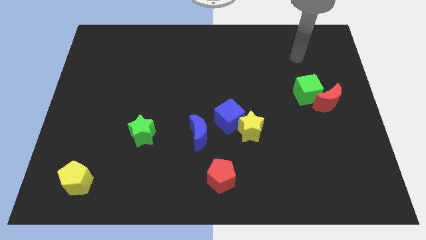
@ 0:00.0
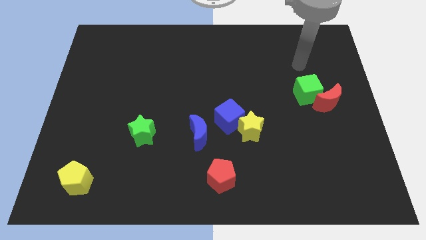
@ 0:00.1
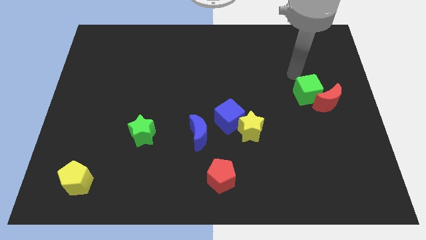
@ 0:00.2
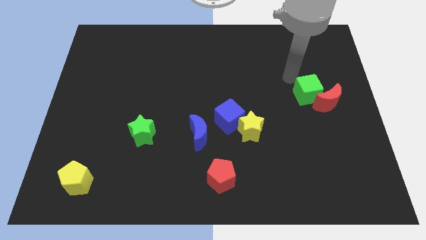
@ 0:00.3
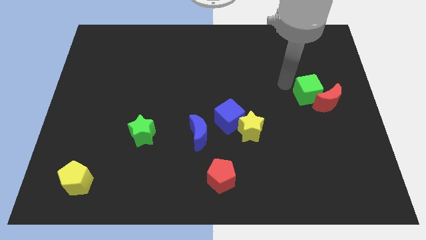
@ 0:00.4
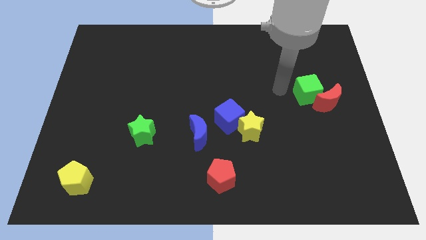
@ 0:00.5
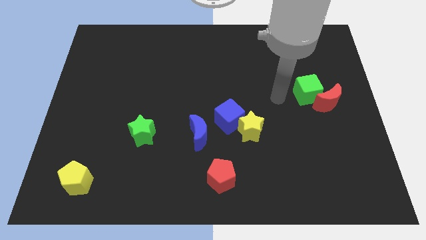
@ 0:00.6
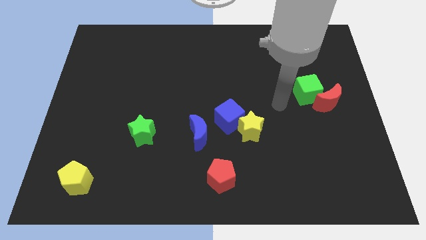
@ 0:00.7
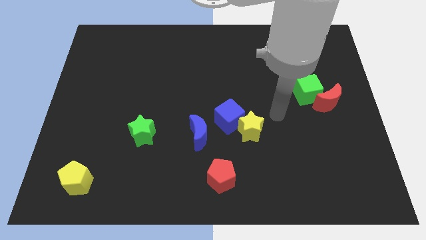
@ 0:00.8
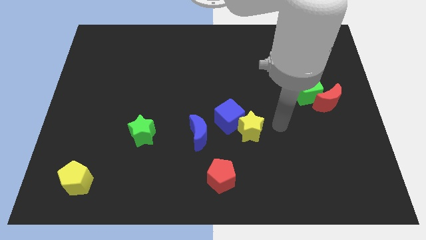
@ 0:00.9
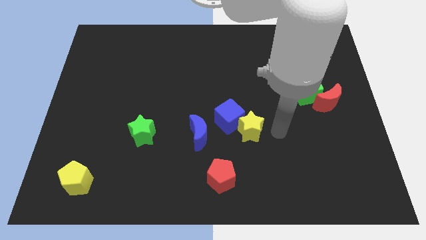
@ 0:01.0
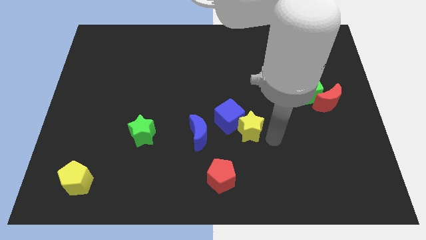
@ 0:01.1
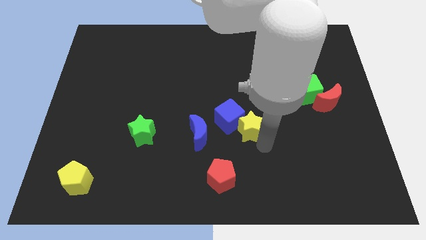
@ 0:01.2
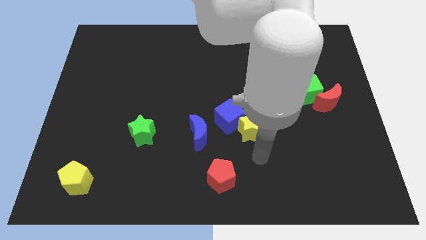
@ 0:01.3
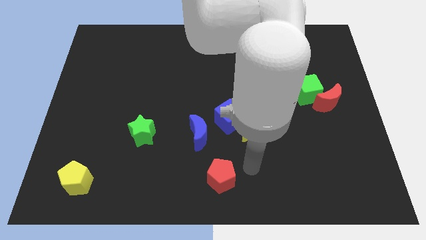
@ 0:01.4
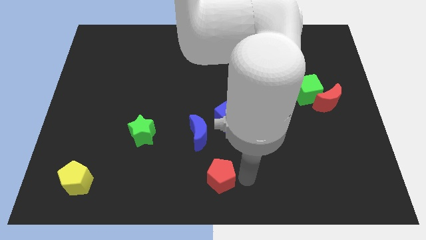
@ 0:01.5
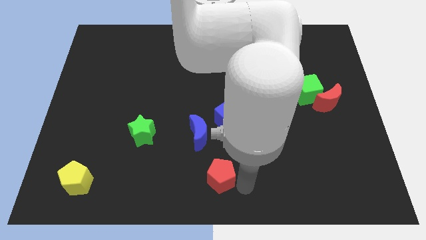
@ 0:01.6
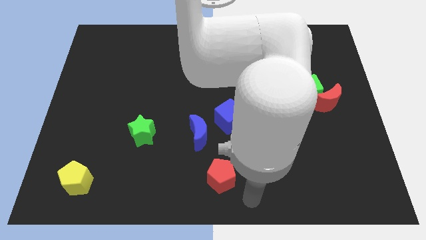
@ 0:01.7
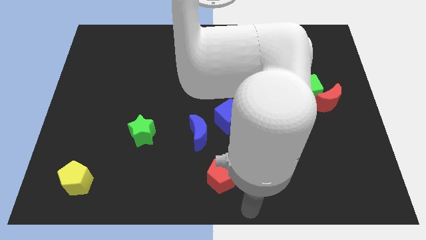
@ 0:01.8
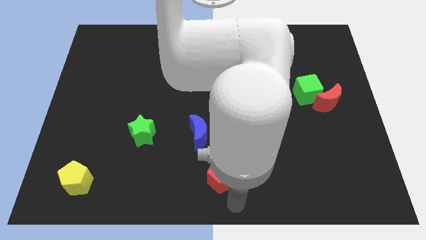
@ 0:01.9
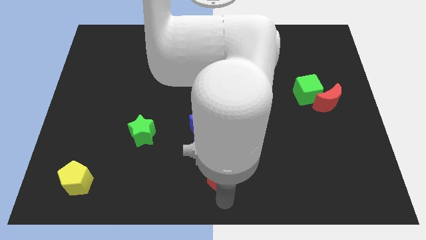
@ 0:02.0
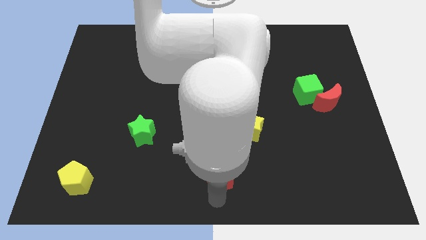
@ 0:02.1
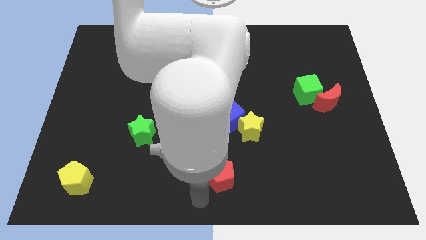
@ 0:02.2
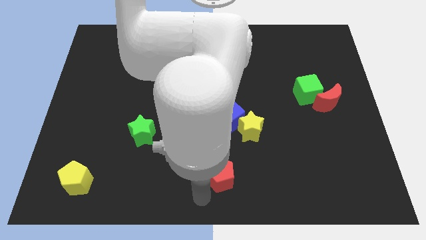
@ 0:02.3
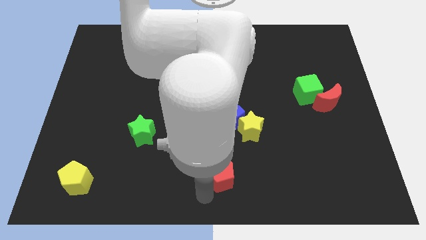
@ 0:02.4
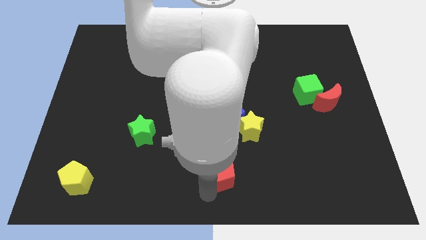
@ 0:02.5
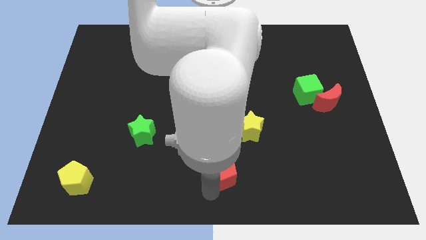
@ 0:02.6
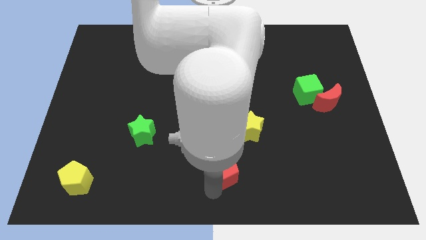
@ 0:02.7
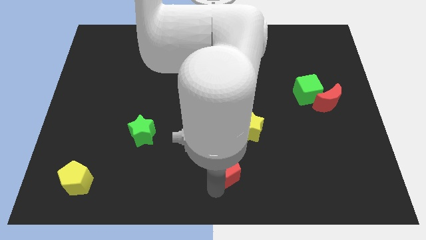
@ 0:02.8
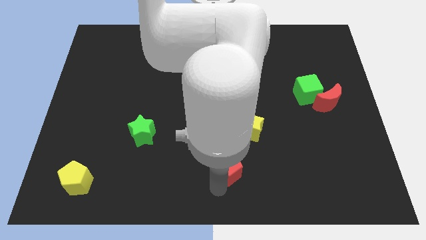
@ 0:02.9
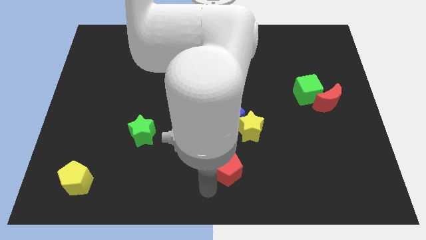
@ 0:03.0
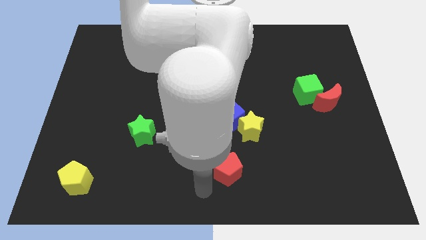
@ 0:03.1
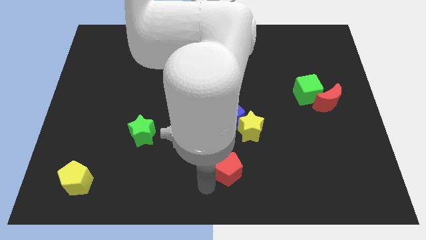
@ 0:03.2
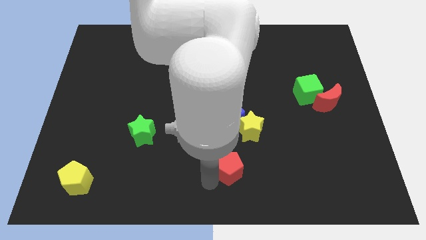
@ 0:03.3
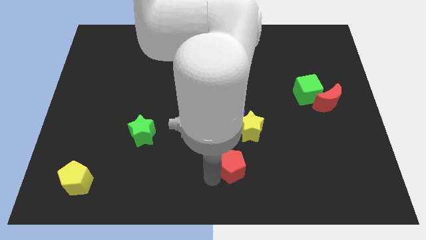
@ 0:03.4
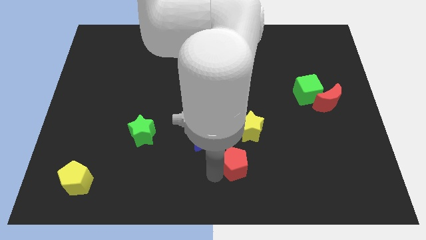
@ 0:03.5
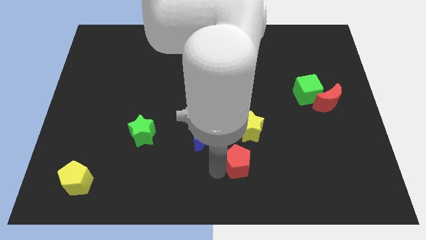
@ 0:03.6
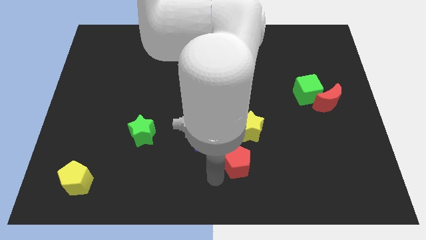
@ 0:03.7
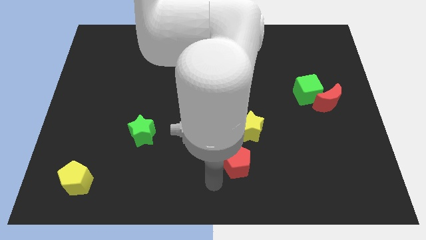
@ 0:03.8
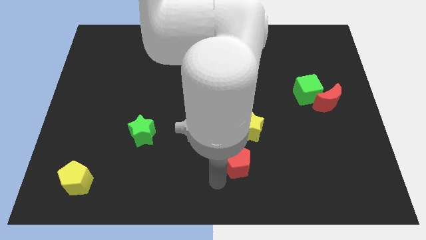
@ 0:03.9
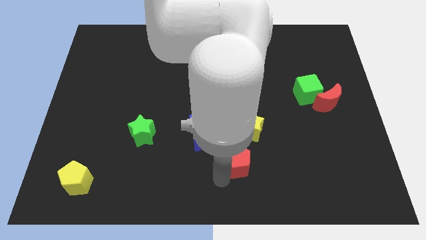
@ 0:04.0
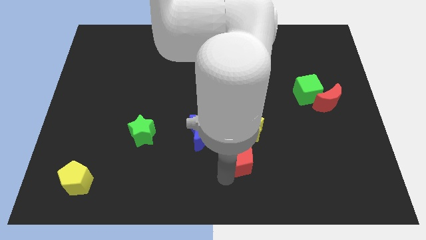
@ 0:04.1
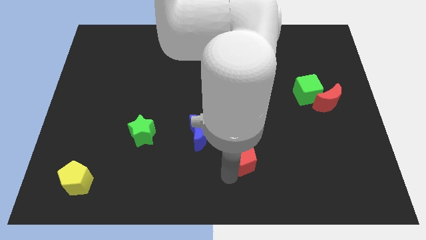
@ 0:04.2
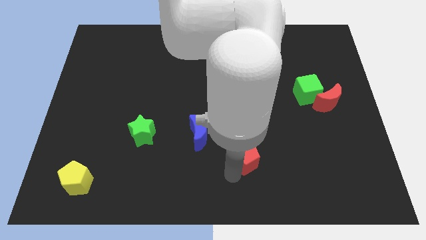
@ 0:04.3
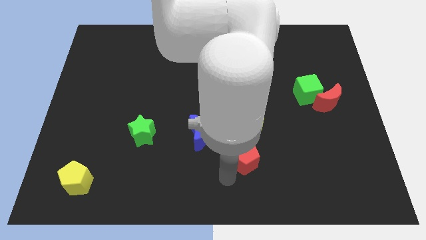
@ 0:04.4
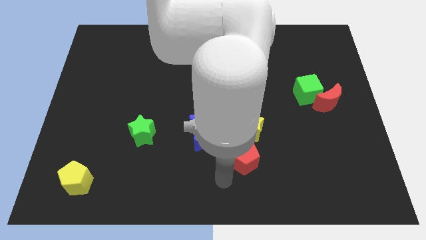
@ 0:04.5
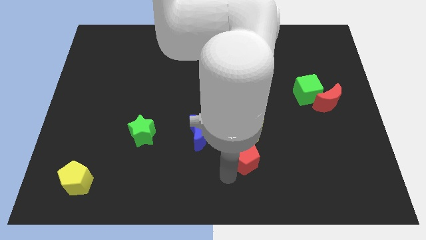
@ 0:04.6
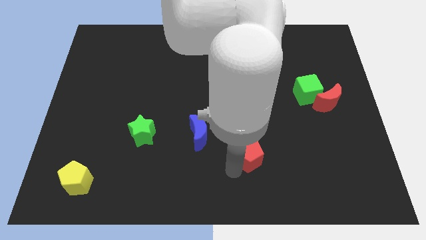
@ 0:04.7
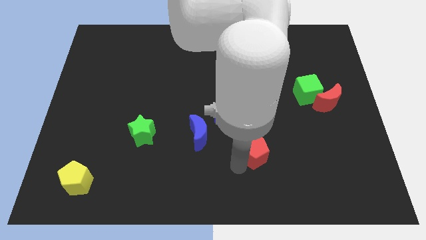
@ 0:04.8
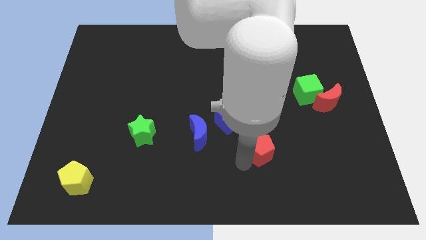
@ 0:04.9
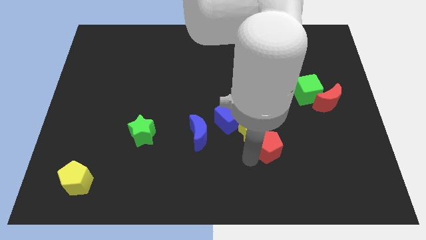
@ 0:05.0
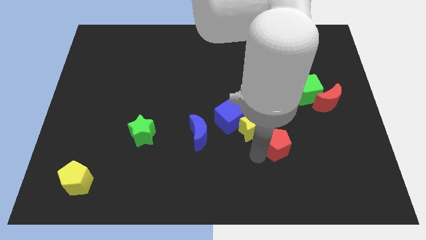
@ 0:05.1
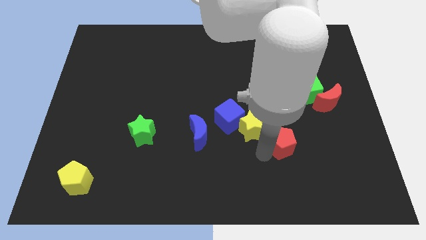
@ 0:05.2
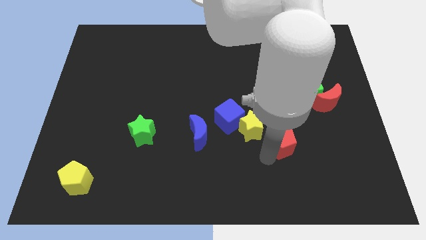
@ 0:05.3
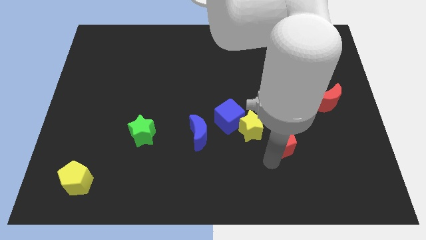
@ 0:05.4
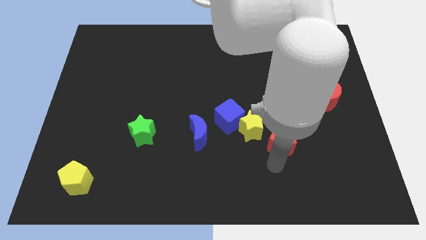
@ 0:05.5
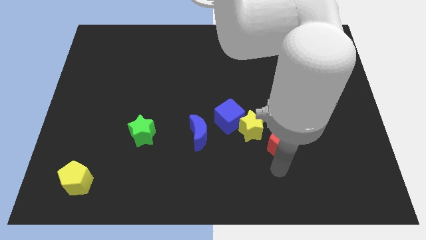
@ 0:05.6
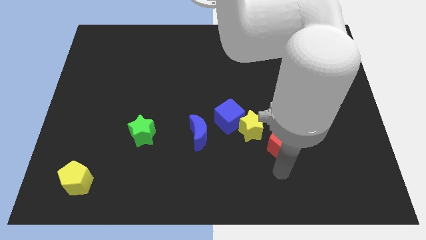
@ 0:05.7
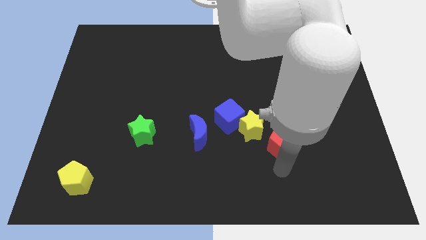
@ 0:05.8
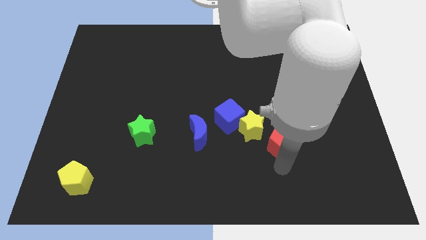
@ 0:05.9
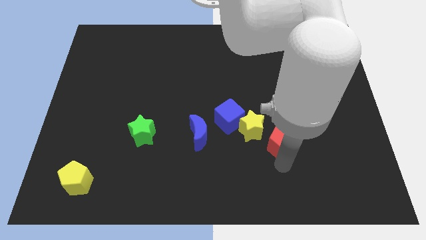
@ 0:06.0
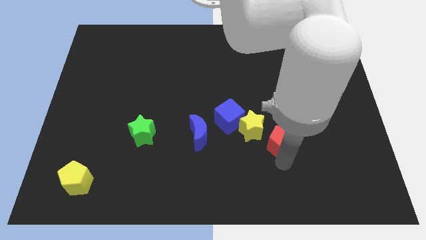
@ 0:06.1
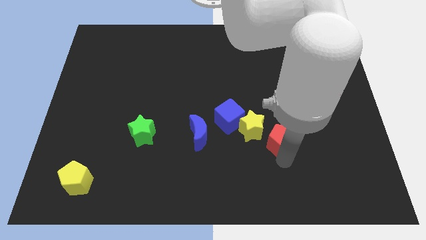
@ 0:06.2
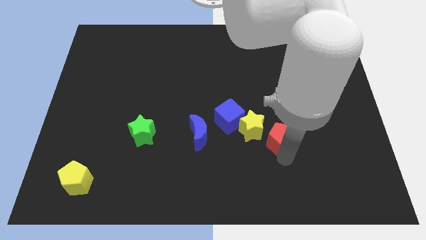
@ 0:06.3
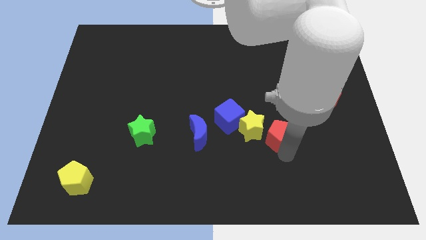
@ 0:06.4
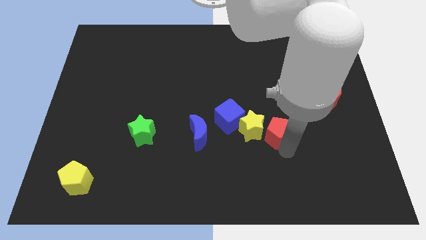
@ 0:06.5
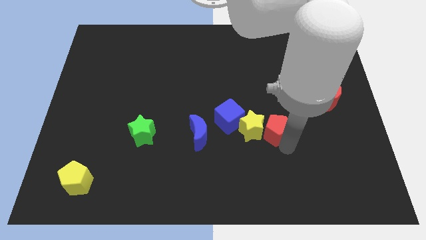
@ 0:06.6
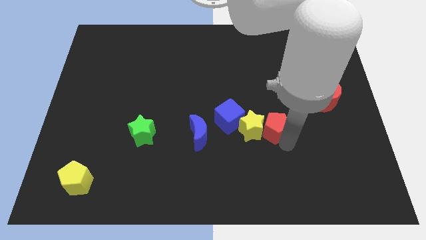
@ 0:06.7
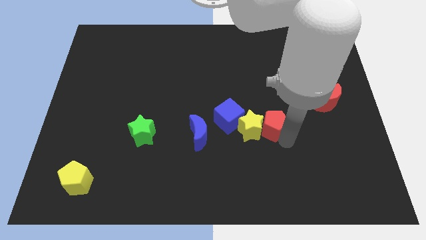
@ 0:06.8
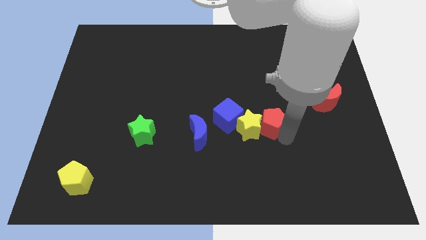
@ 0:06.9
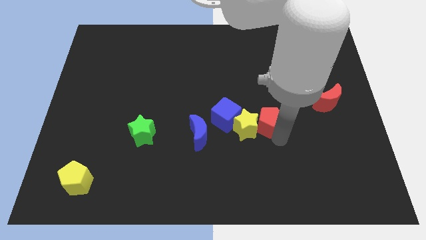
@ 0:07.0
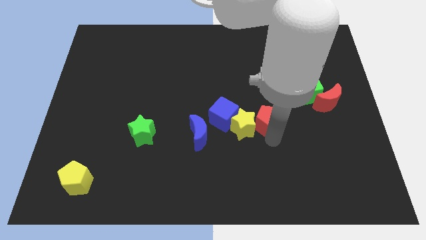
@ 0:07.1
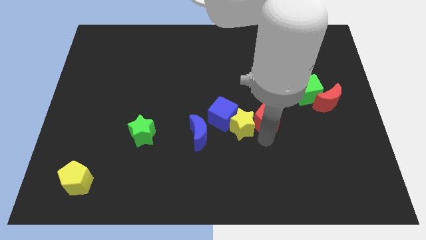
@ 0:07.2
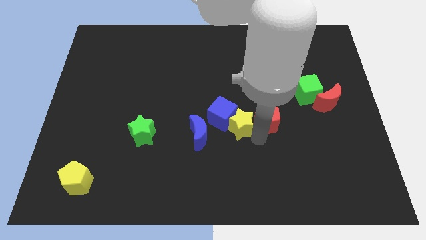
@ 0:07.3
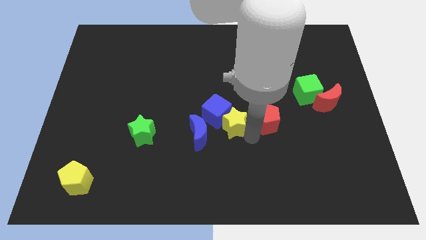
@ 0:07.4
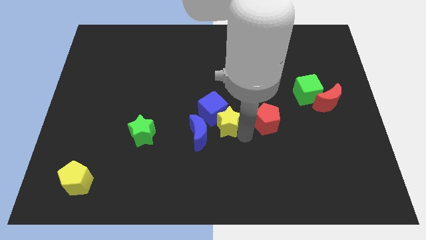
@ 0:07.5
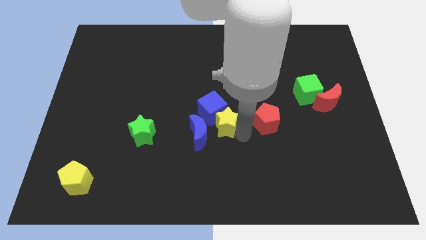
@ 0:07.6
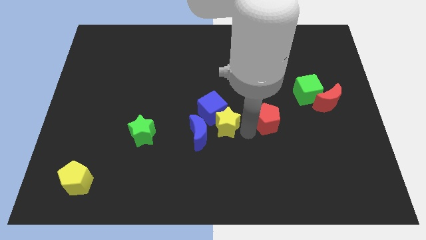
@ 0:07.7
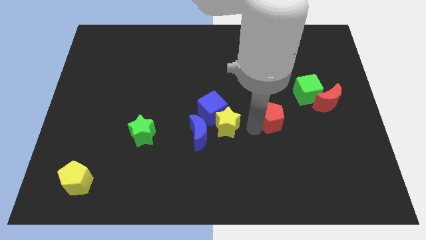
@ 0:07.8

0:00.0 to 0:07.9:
put the red pentagon diagonally down and to the left of the green cube
